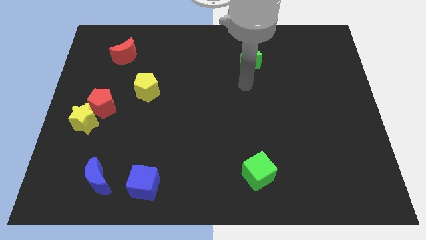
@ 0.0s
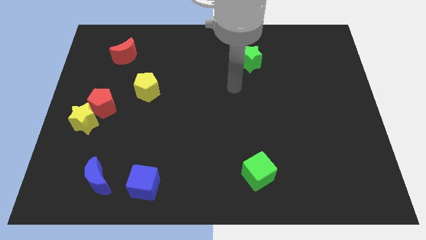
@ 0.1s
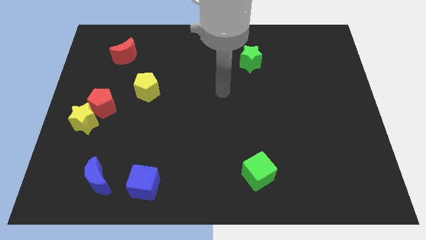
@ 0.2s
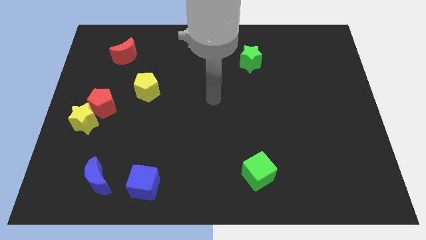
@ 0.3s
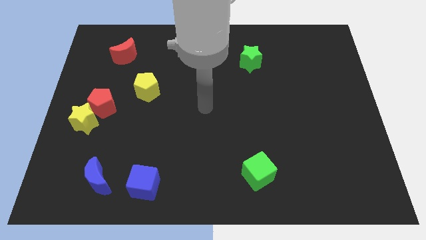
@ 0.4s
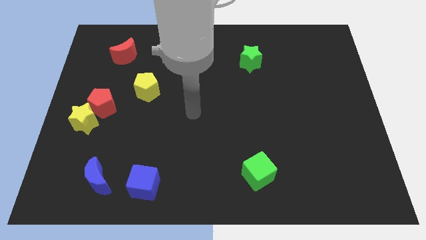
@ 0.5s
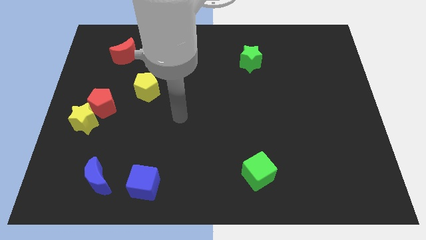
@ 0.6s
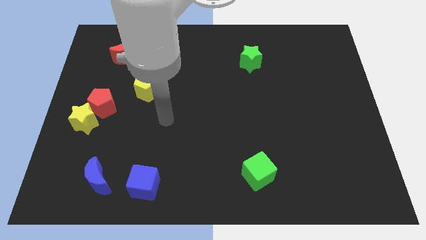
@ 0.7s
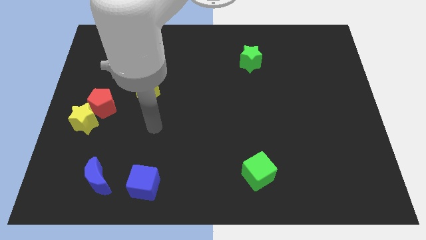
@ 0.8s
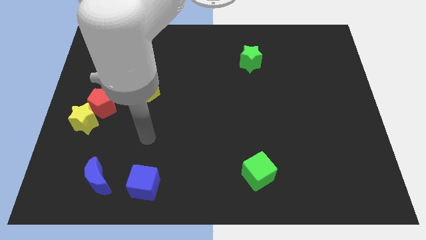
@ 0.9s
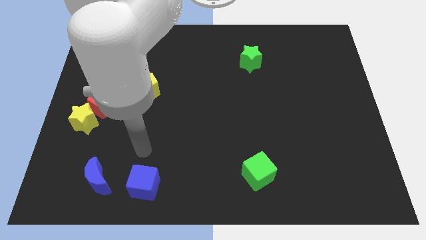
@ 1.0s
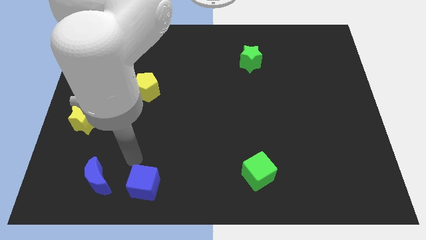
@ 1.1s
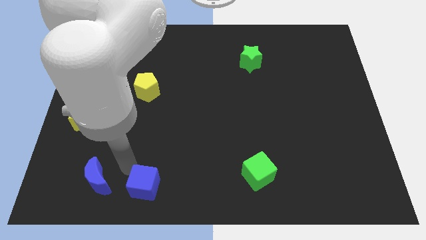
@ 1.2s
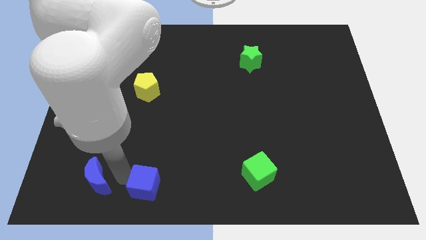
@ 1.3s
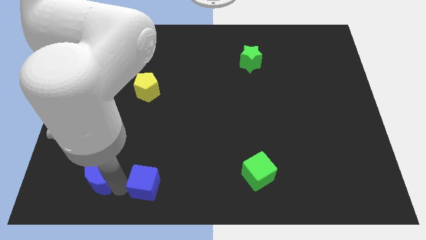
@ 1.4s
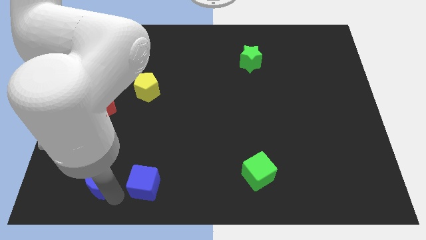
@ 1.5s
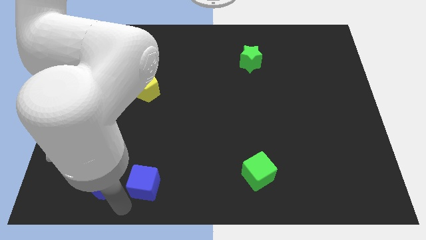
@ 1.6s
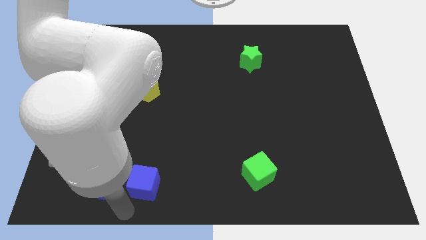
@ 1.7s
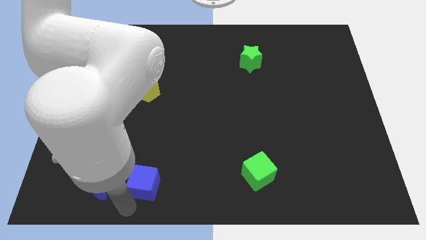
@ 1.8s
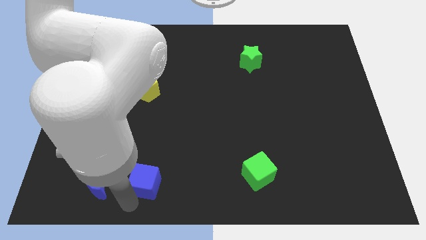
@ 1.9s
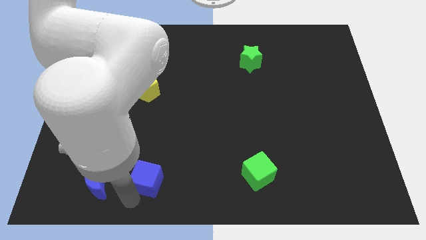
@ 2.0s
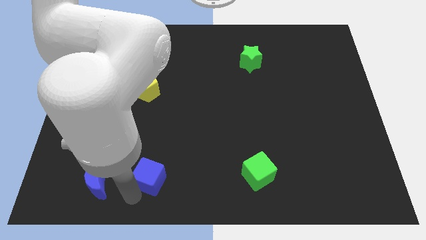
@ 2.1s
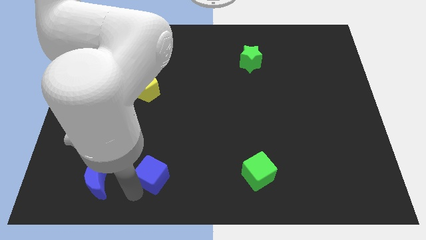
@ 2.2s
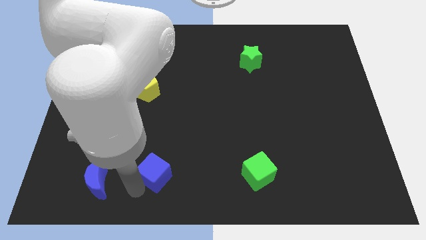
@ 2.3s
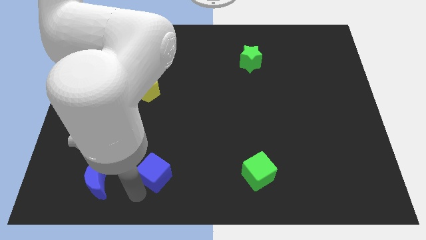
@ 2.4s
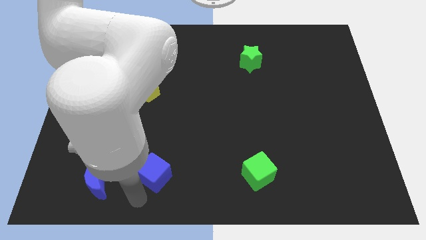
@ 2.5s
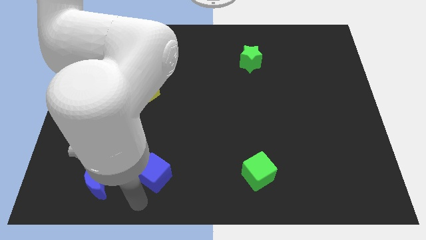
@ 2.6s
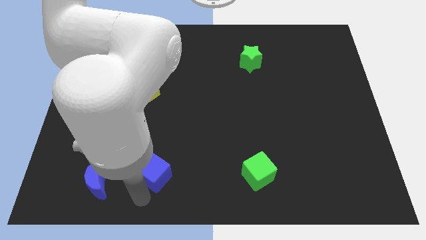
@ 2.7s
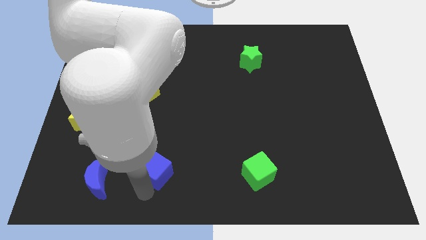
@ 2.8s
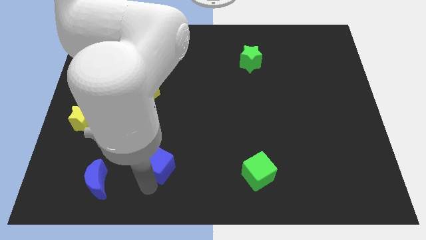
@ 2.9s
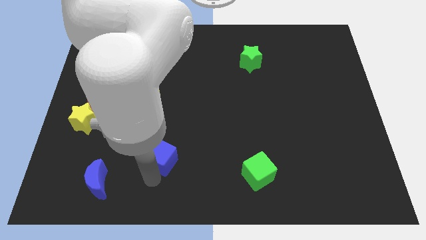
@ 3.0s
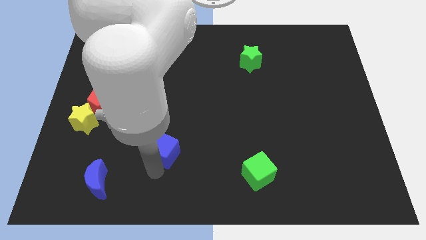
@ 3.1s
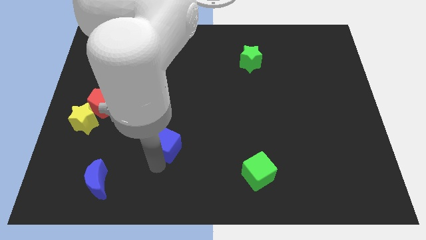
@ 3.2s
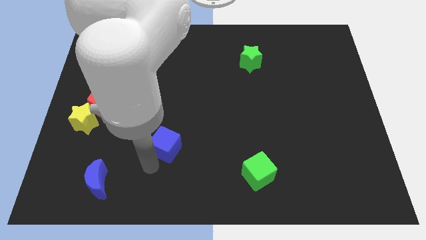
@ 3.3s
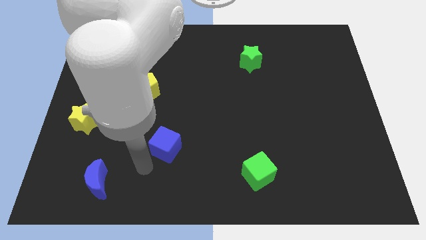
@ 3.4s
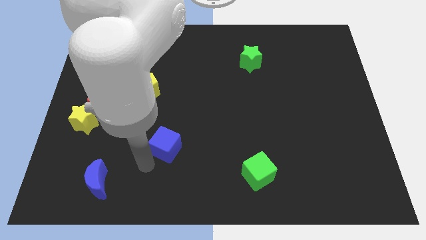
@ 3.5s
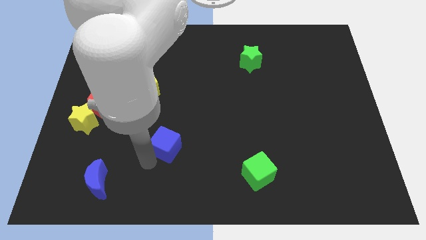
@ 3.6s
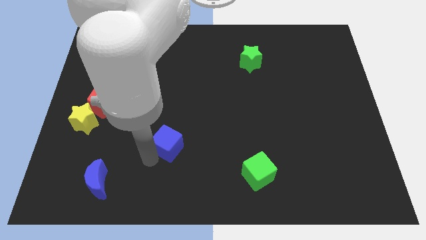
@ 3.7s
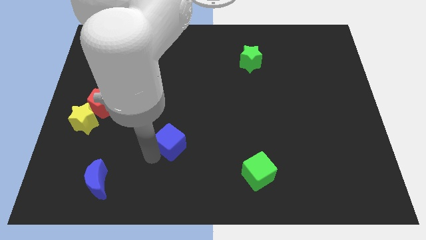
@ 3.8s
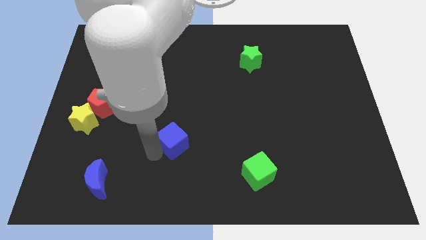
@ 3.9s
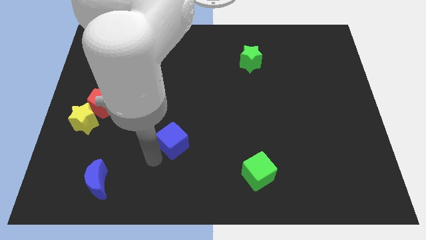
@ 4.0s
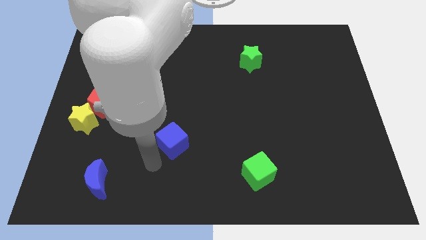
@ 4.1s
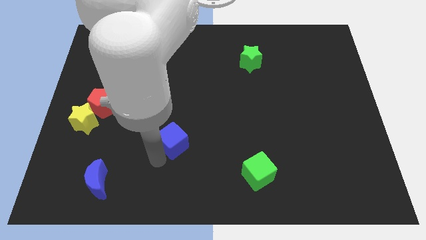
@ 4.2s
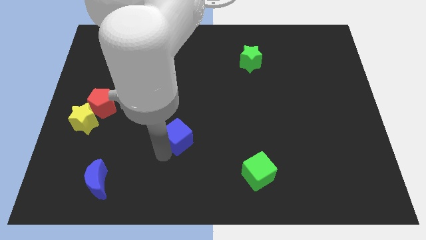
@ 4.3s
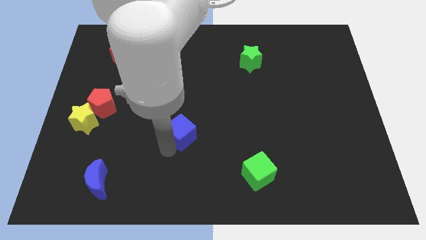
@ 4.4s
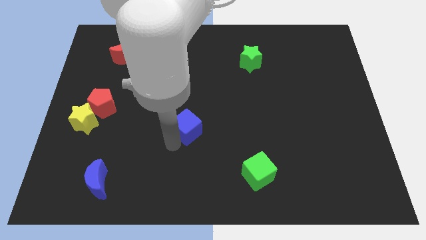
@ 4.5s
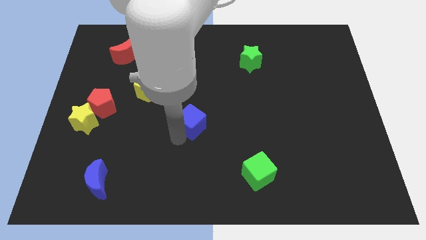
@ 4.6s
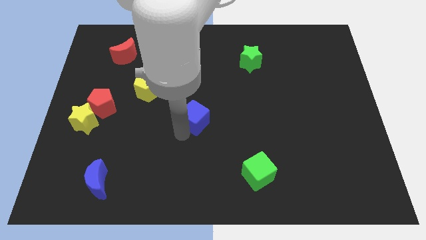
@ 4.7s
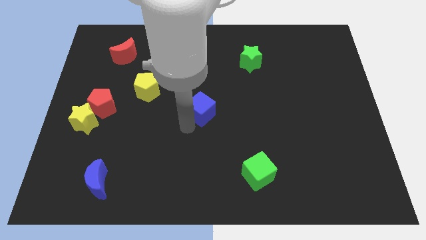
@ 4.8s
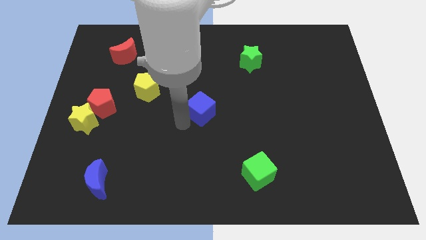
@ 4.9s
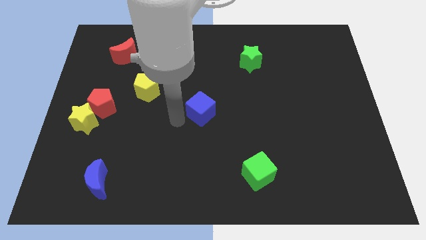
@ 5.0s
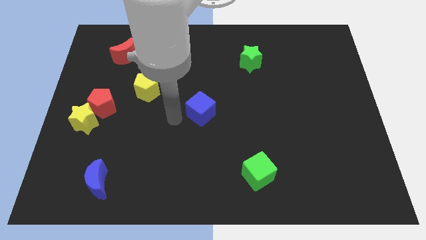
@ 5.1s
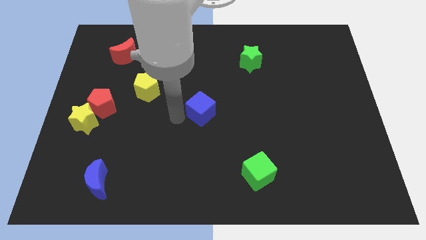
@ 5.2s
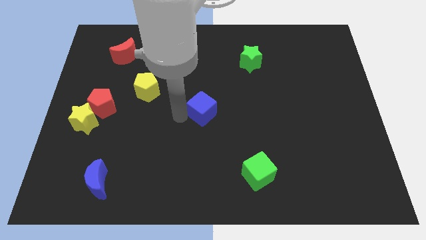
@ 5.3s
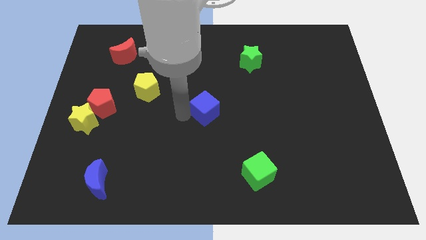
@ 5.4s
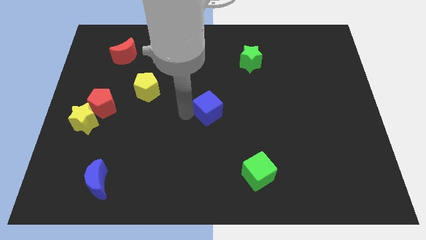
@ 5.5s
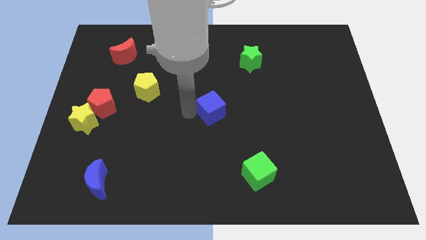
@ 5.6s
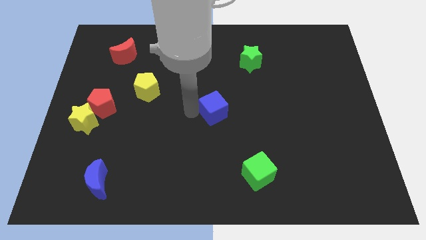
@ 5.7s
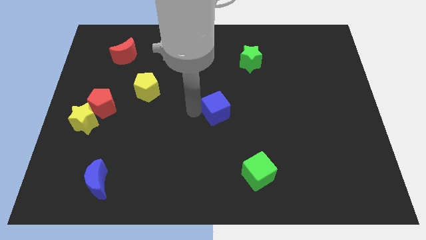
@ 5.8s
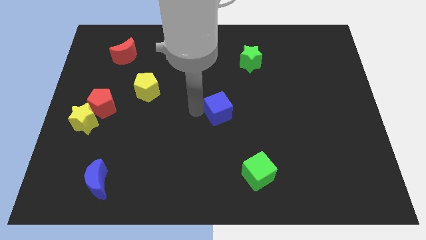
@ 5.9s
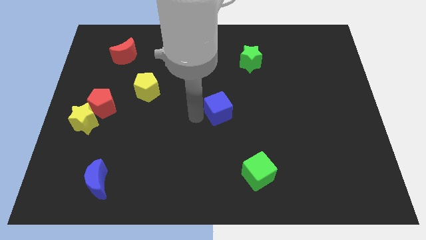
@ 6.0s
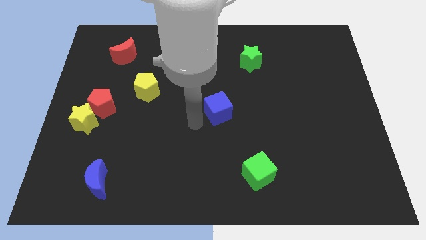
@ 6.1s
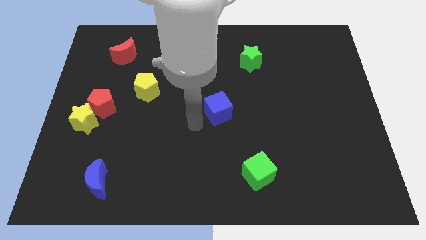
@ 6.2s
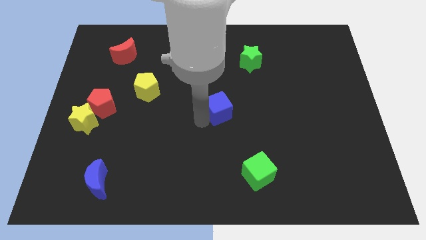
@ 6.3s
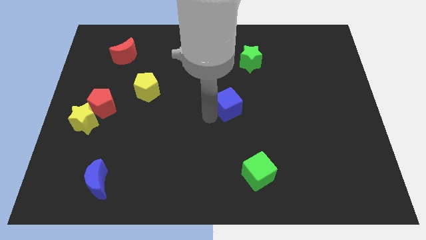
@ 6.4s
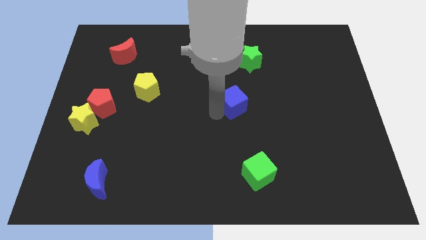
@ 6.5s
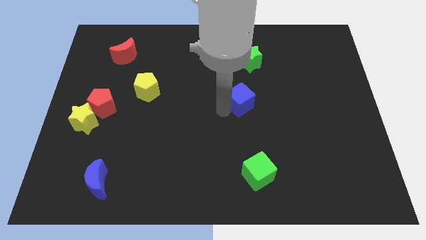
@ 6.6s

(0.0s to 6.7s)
slide the blue cube to the bottom side of the green star

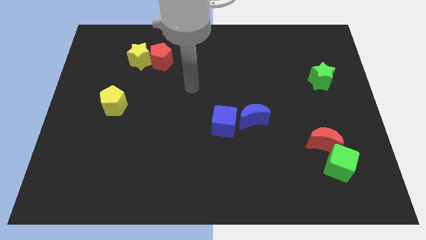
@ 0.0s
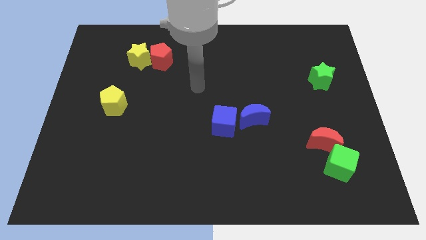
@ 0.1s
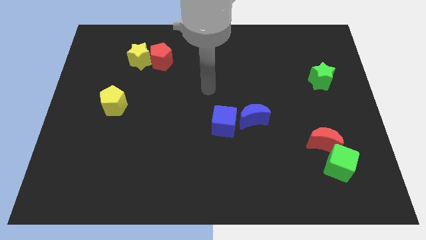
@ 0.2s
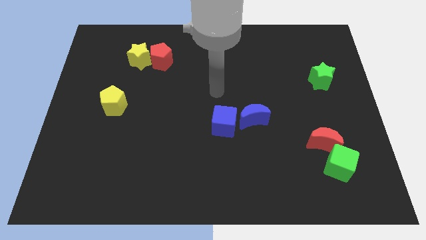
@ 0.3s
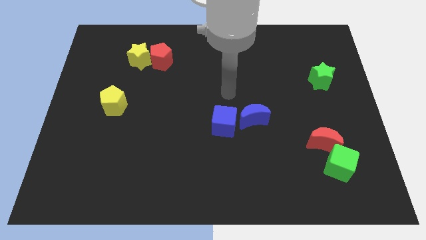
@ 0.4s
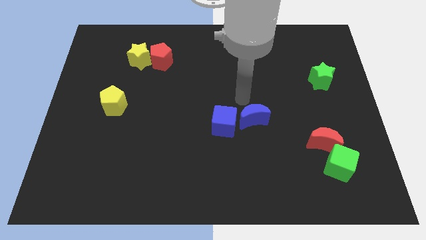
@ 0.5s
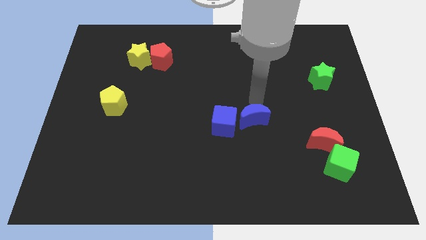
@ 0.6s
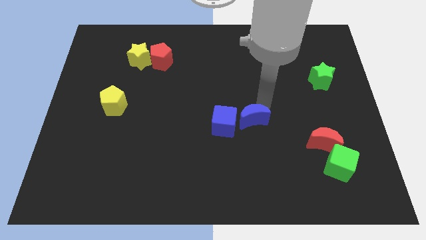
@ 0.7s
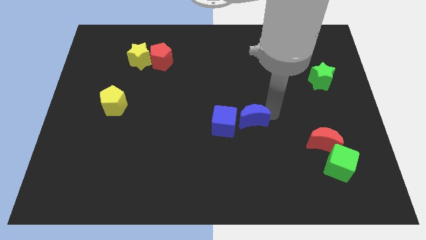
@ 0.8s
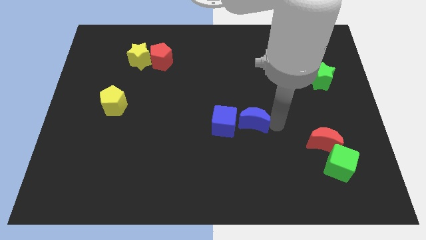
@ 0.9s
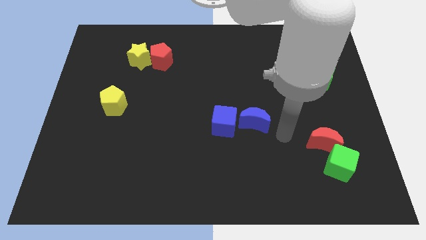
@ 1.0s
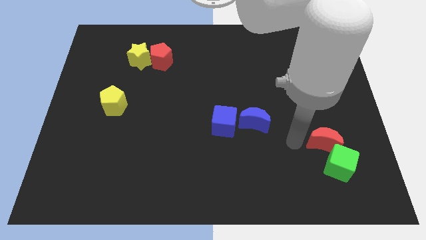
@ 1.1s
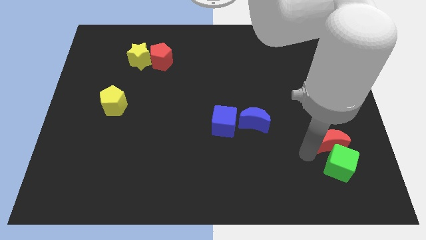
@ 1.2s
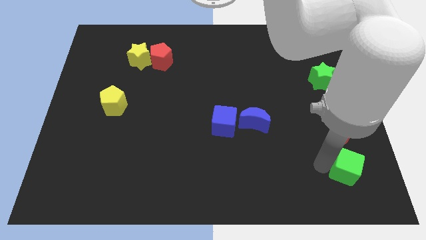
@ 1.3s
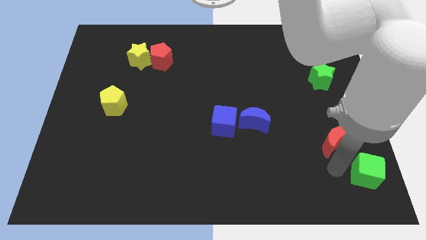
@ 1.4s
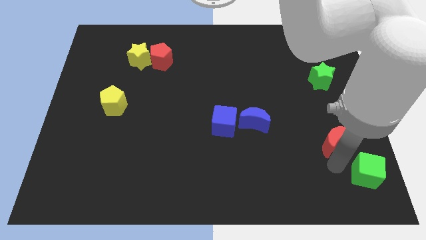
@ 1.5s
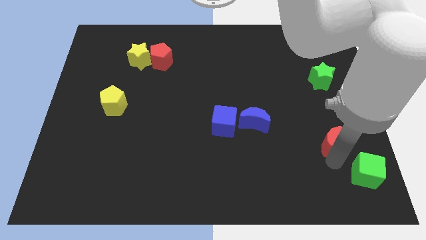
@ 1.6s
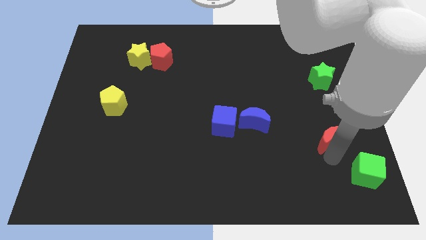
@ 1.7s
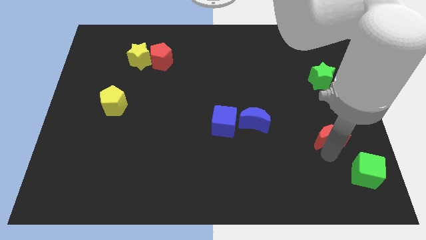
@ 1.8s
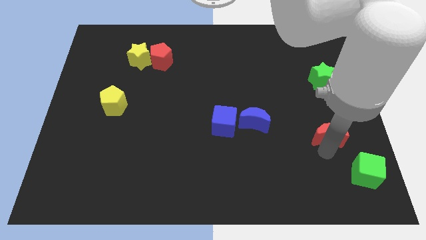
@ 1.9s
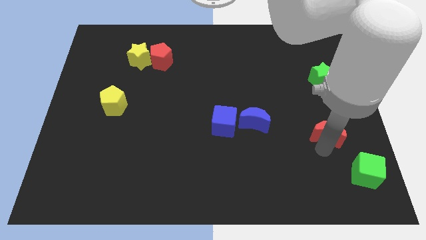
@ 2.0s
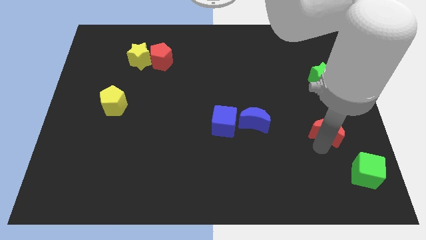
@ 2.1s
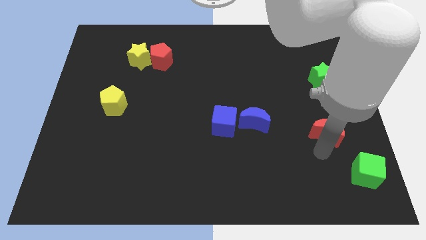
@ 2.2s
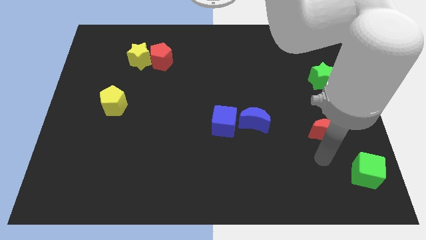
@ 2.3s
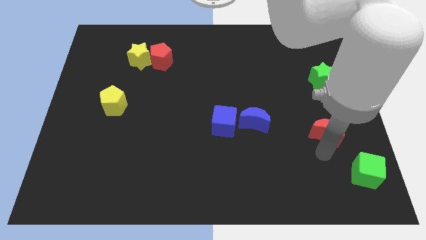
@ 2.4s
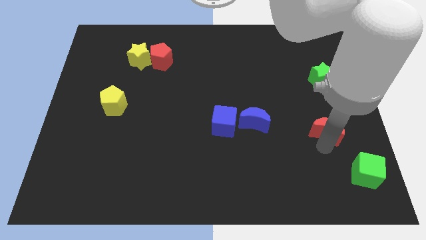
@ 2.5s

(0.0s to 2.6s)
slide the red moon to the bottom of the green star
